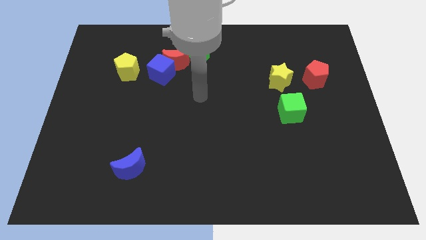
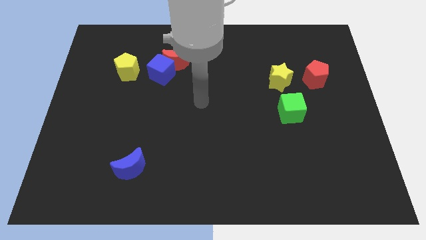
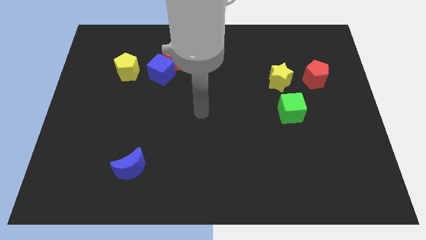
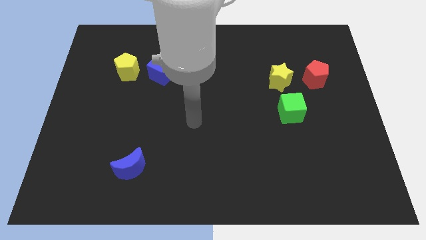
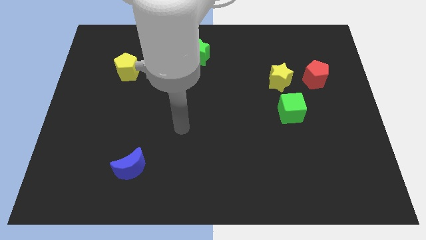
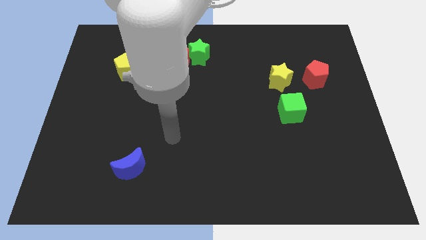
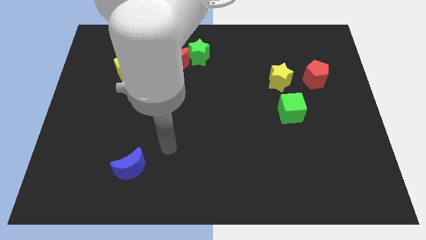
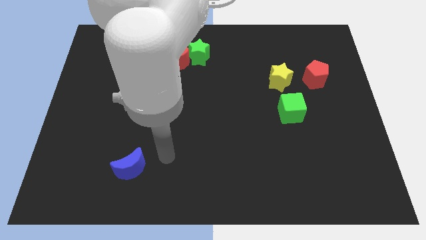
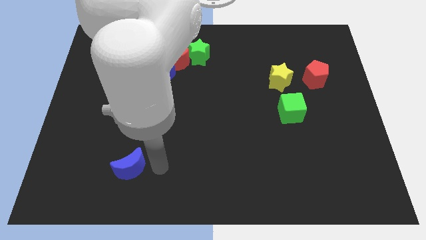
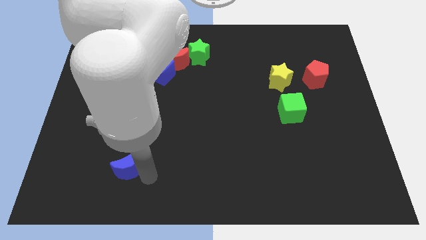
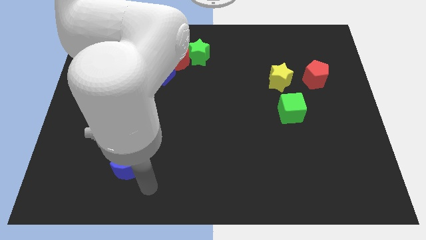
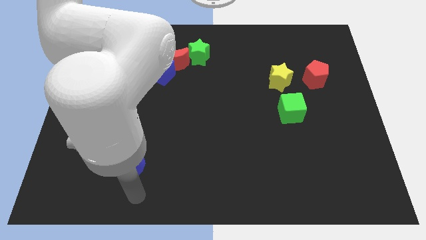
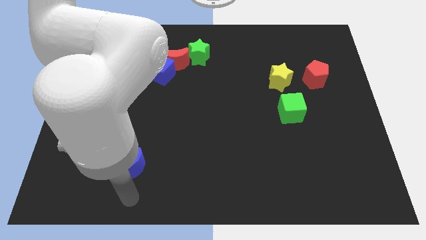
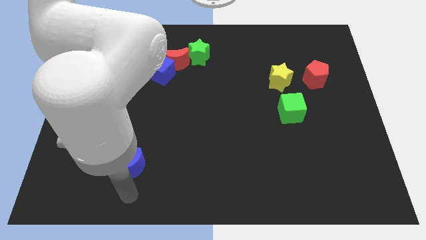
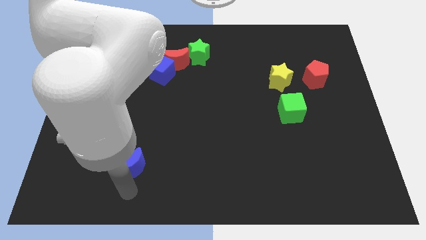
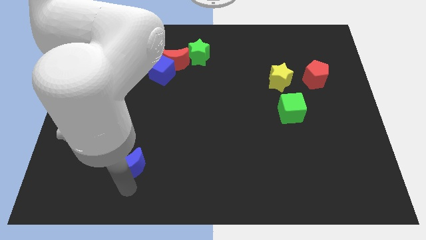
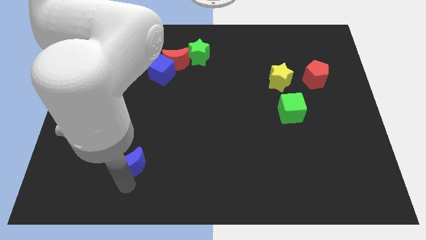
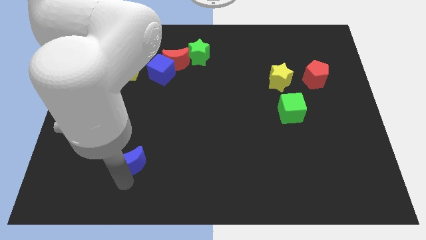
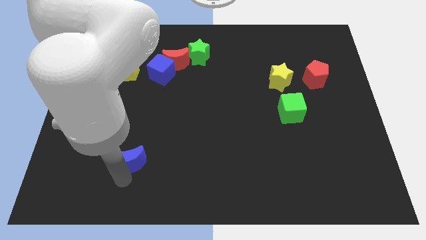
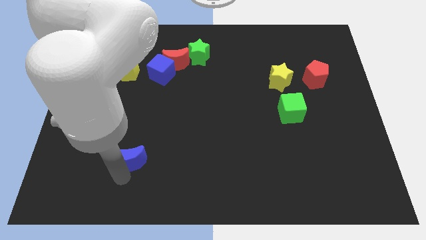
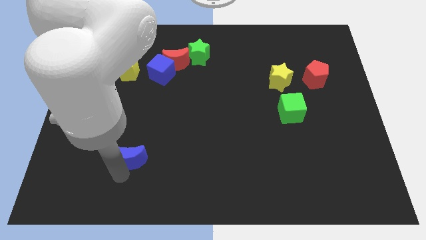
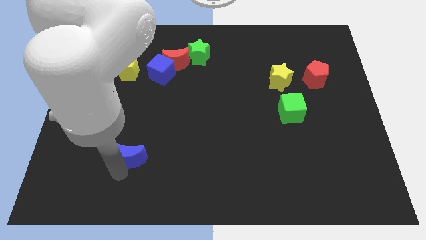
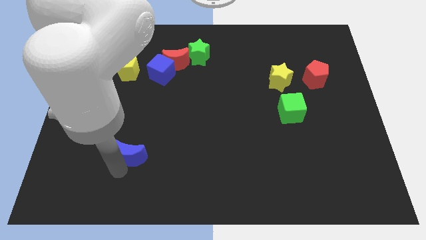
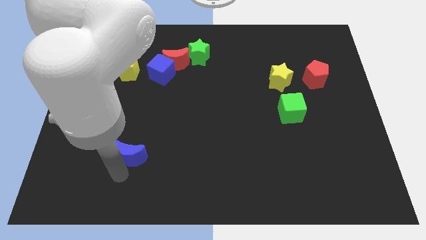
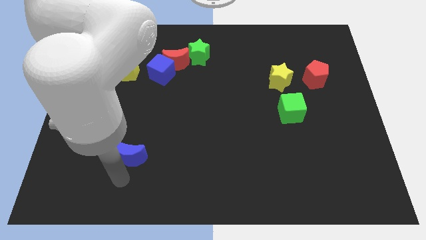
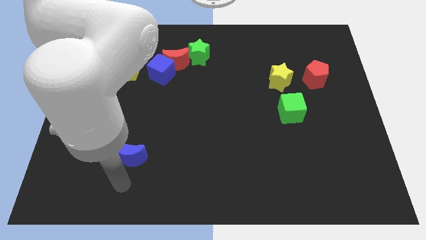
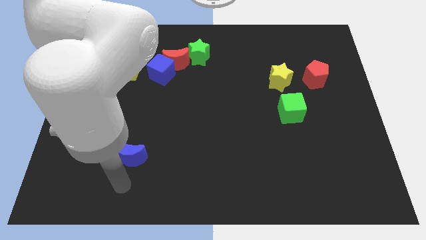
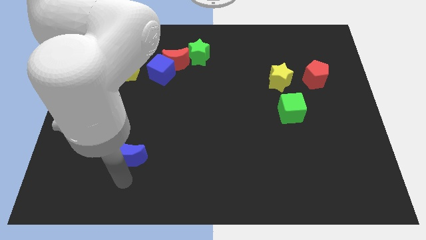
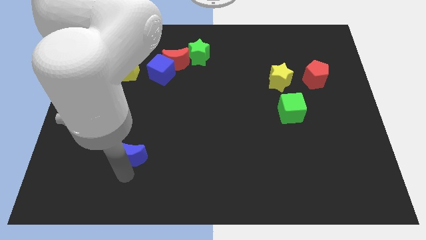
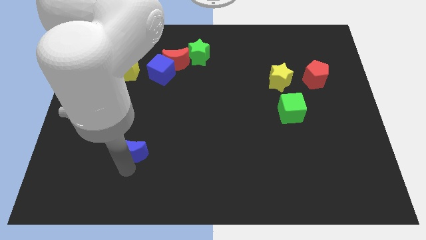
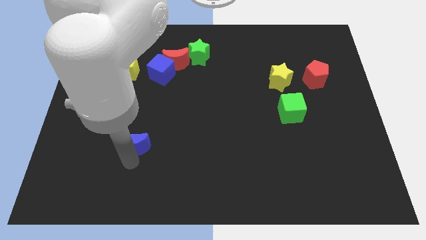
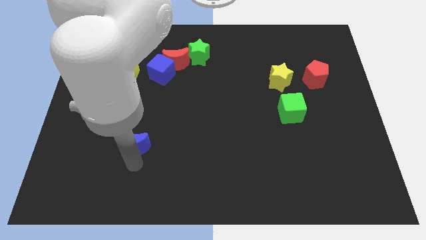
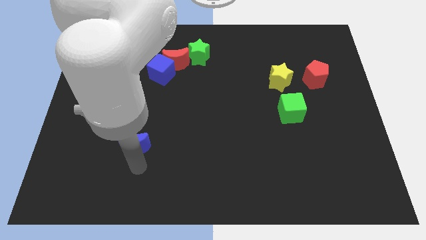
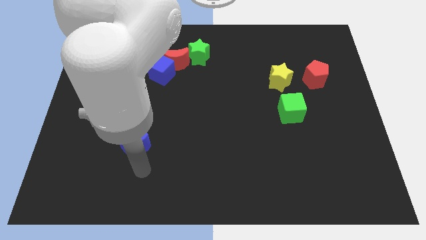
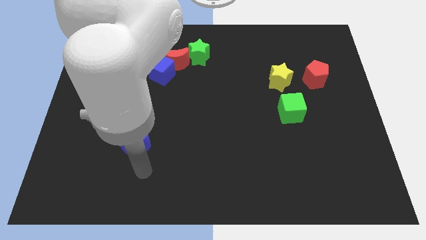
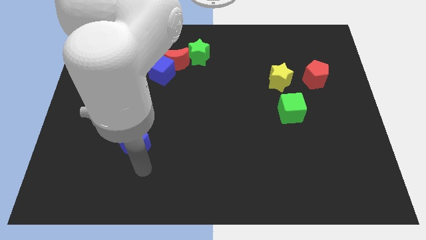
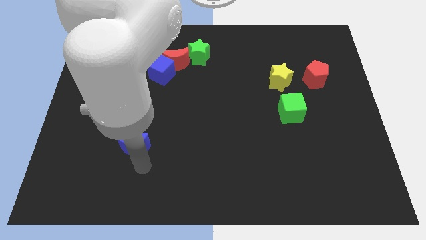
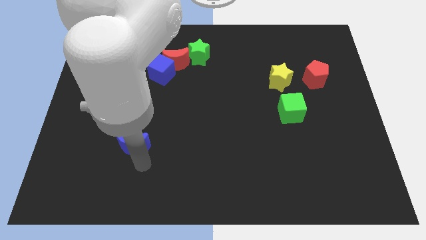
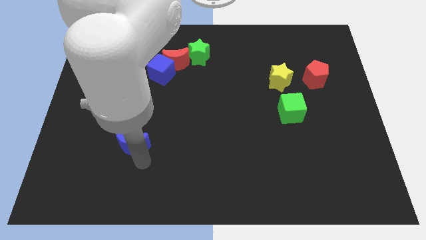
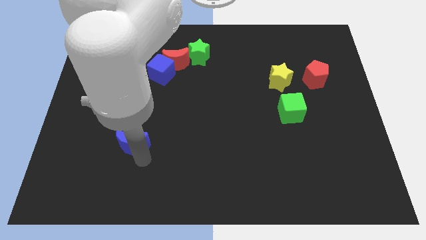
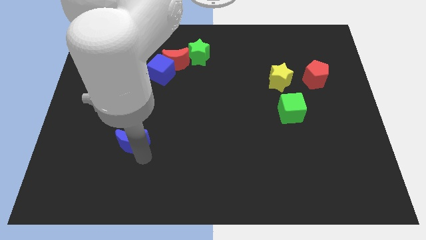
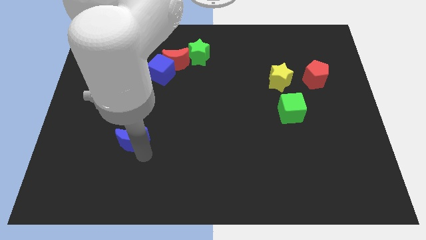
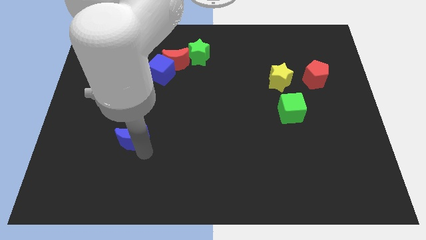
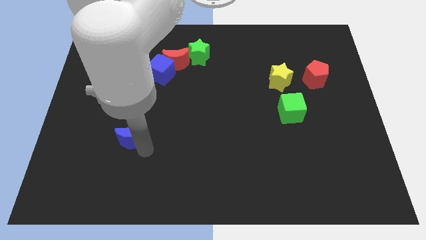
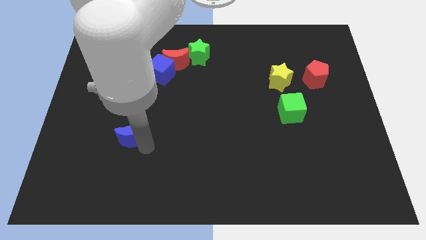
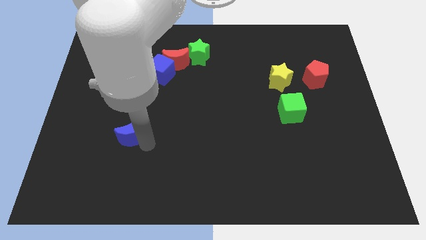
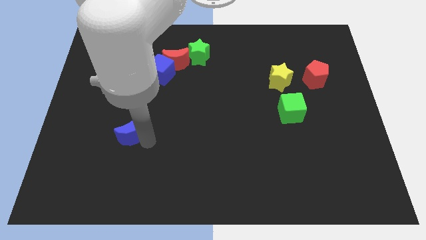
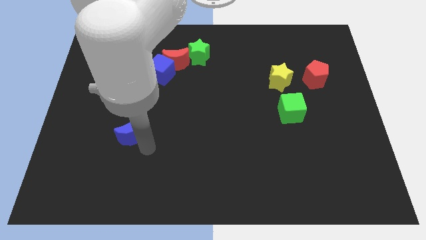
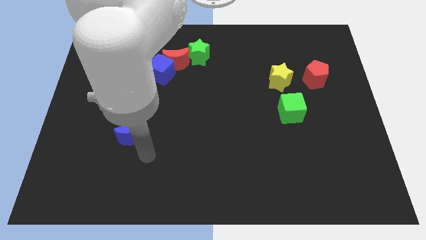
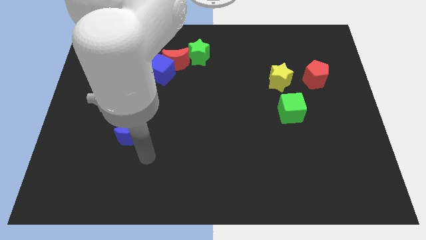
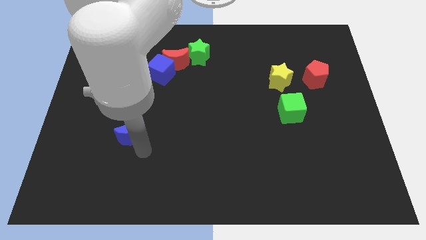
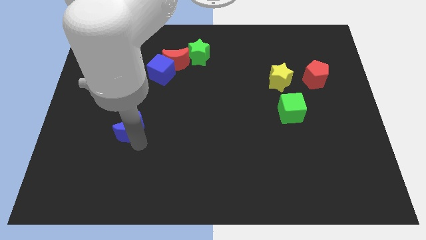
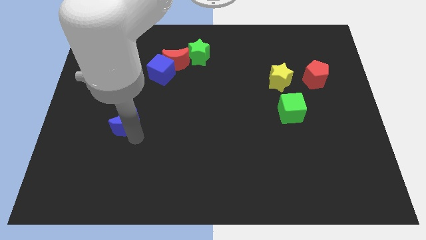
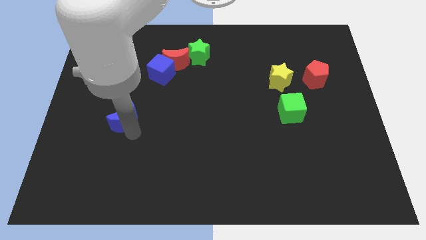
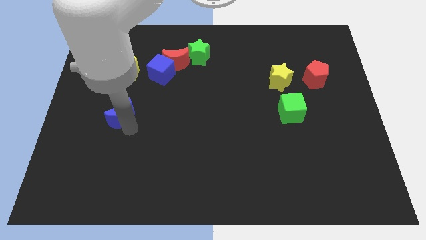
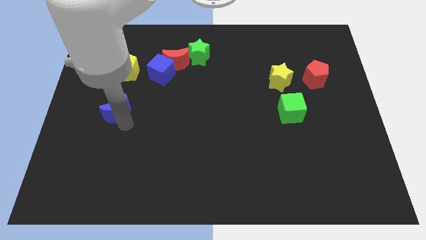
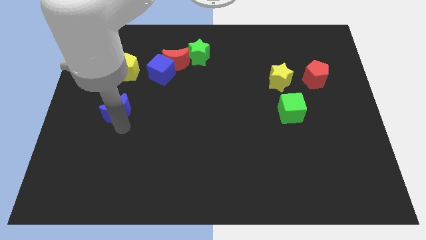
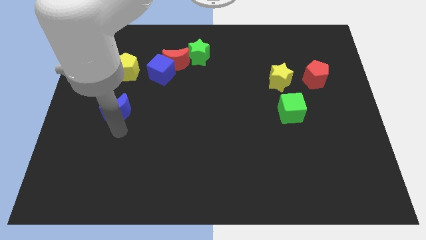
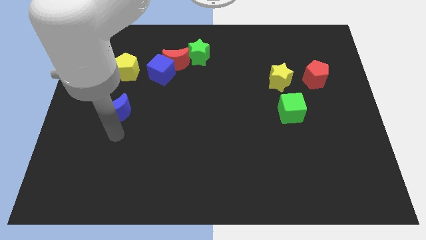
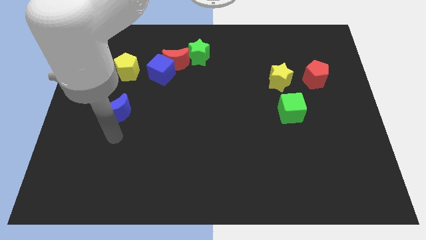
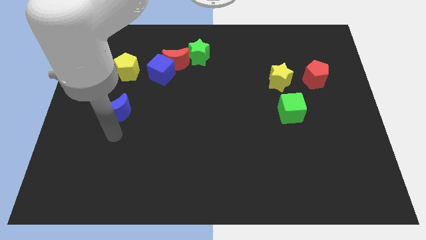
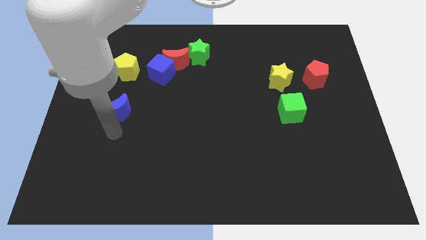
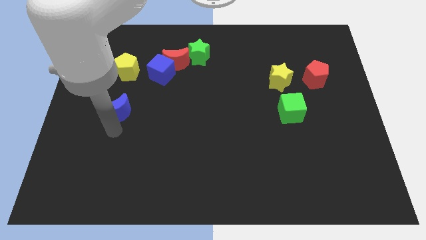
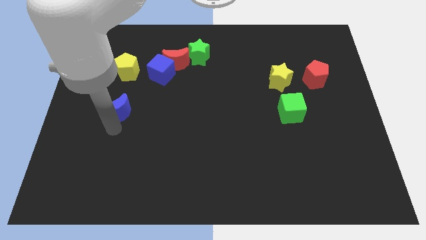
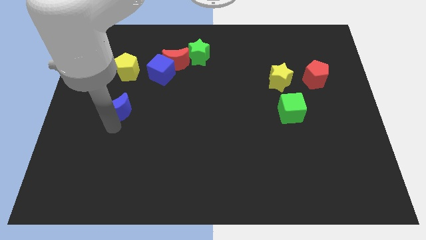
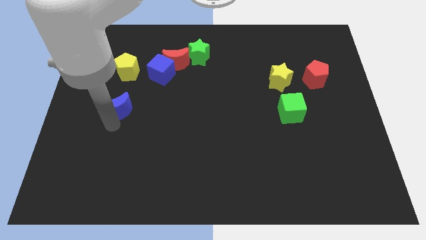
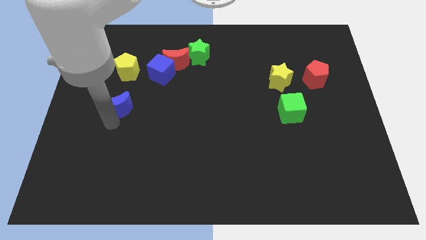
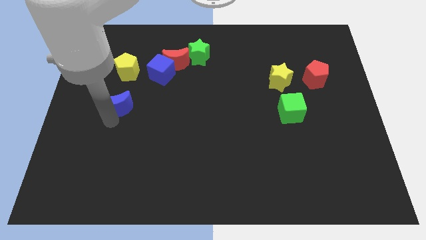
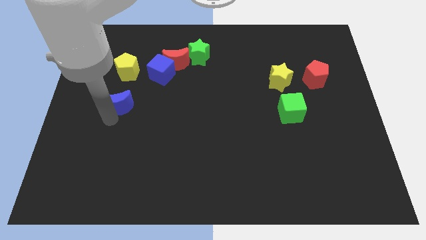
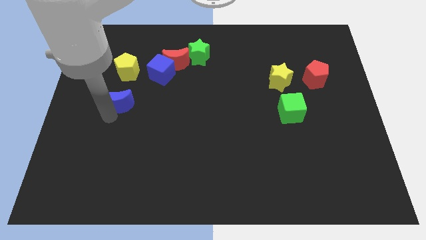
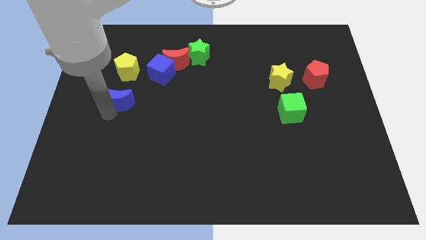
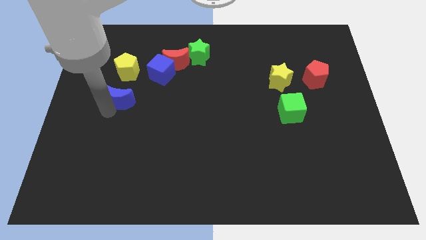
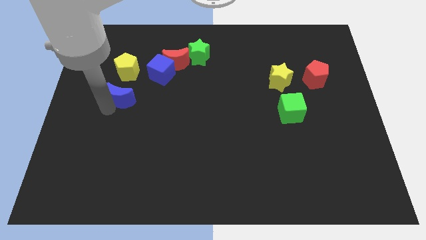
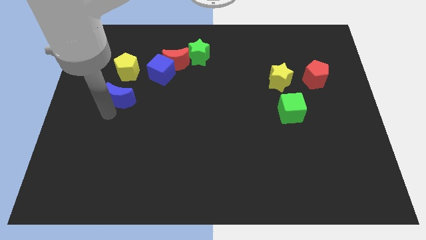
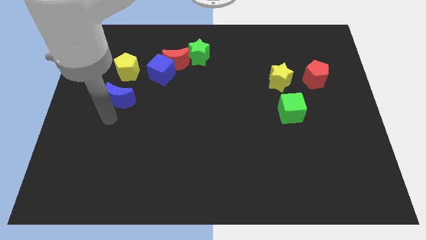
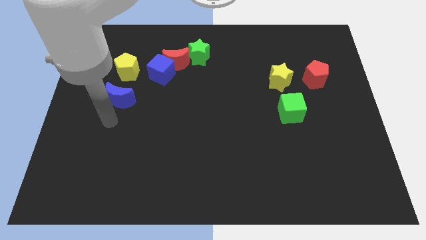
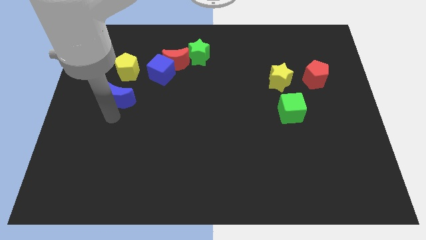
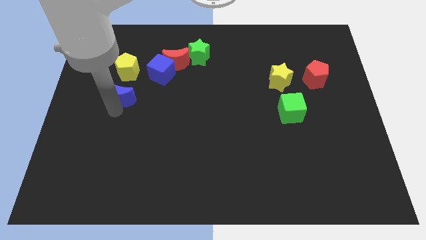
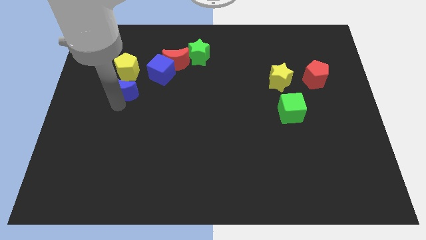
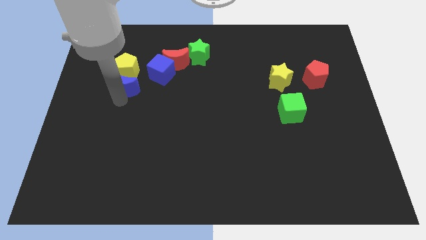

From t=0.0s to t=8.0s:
put the blue moon to the yellow pentagon
